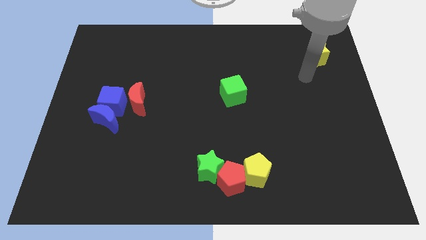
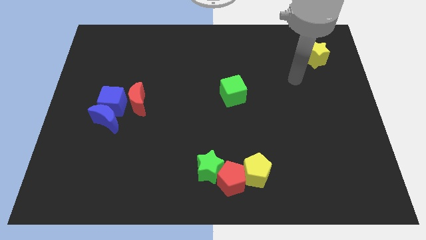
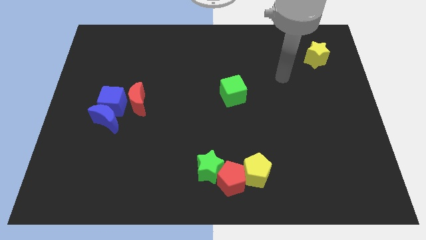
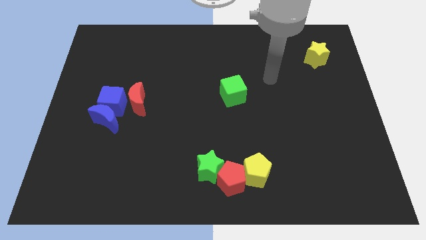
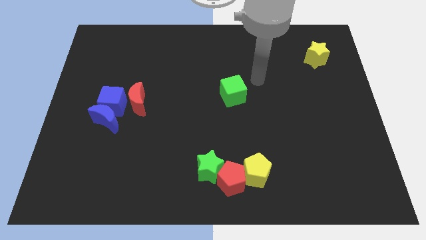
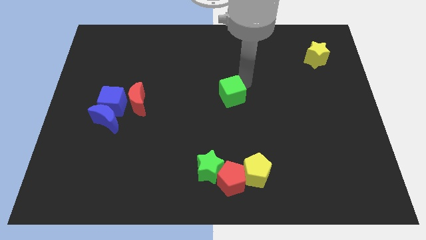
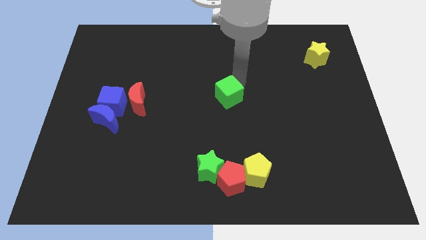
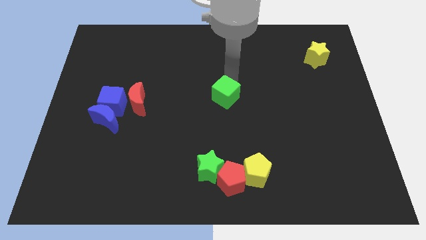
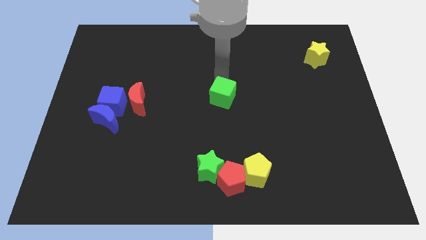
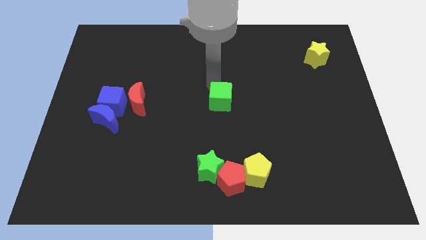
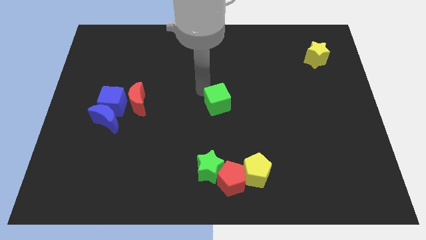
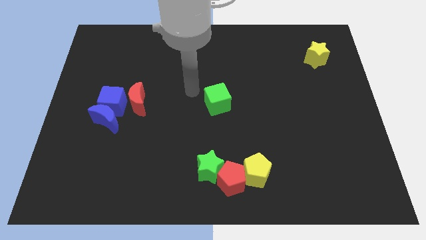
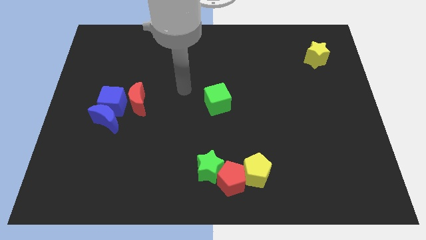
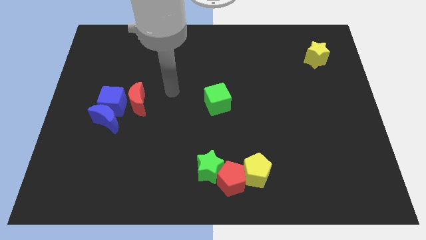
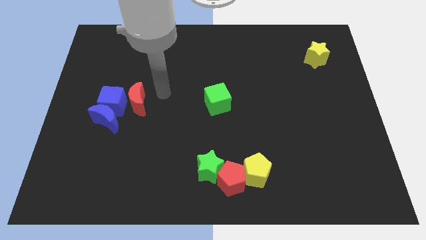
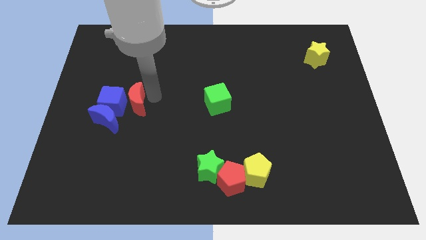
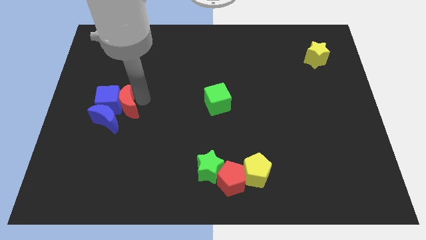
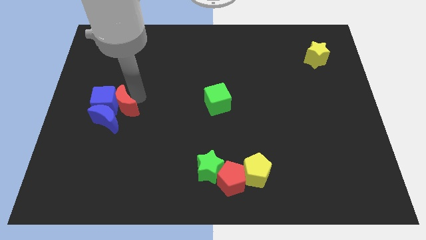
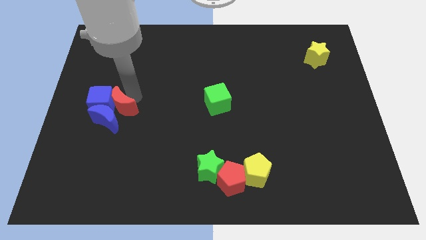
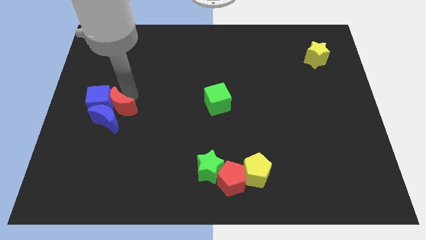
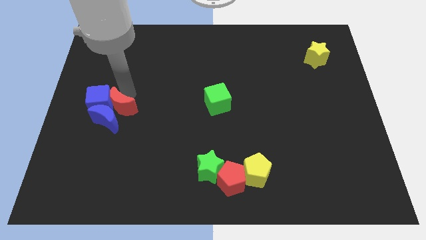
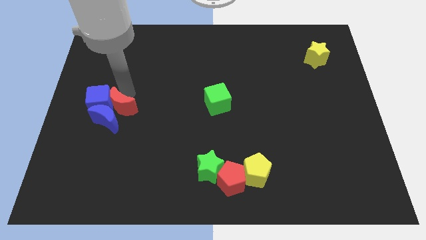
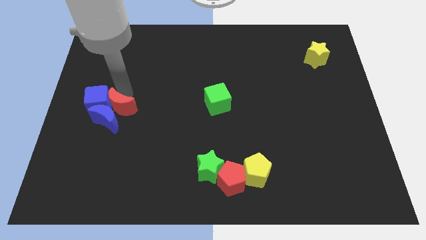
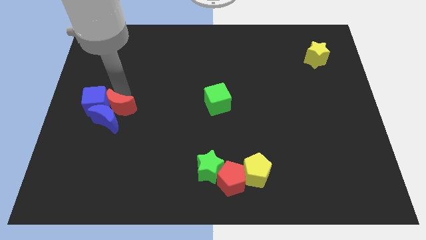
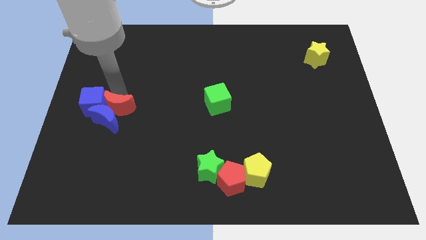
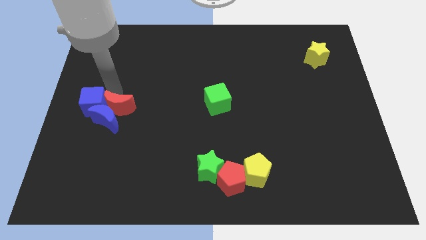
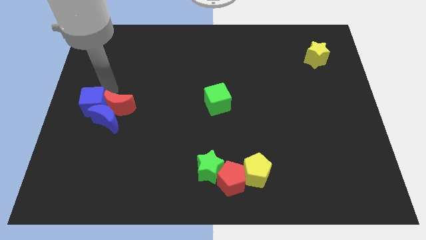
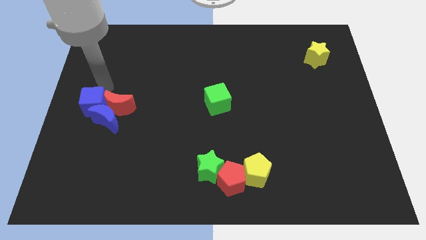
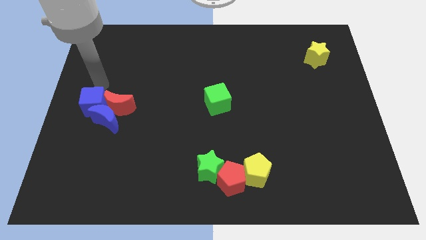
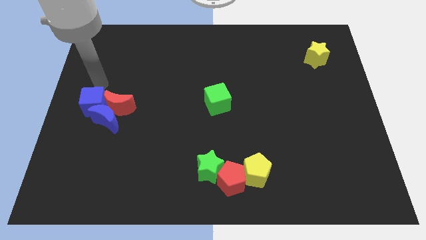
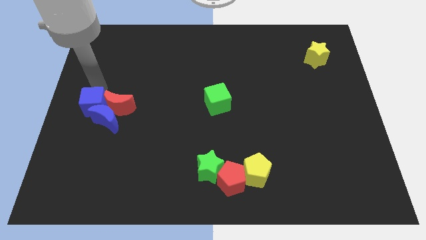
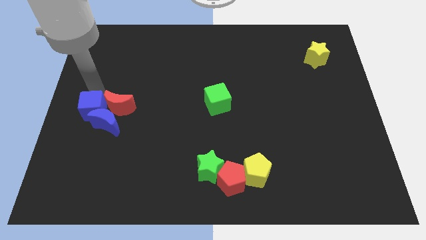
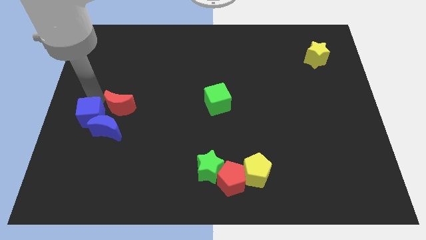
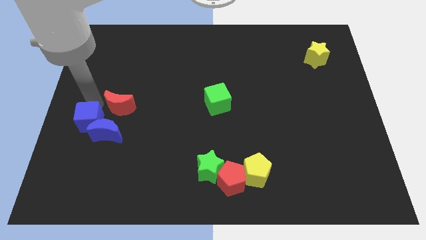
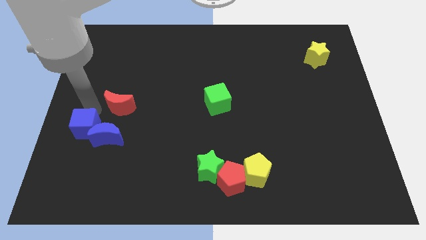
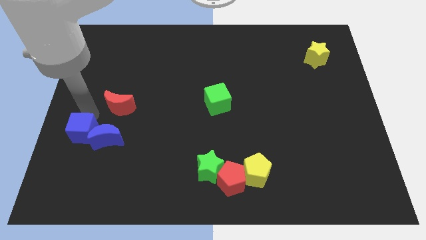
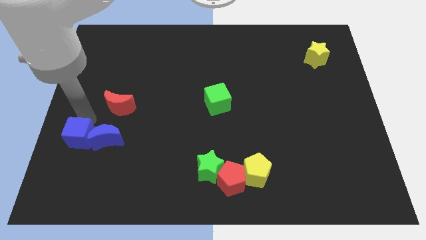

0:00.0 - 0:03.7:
push the blue cube a little down

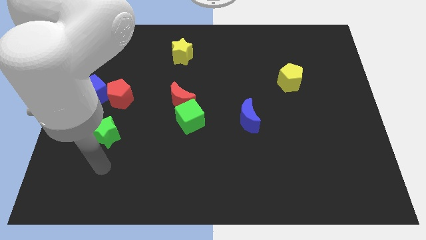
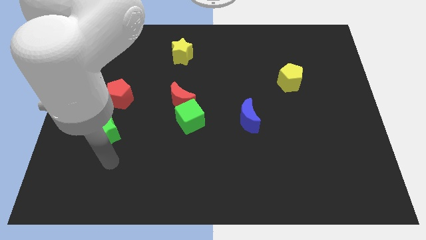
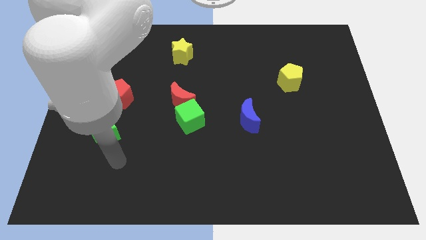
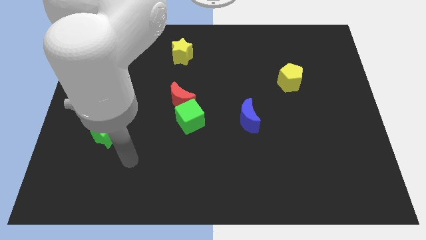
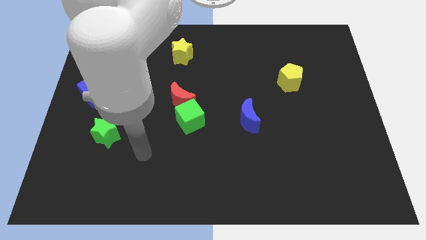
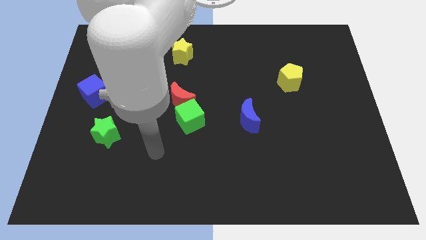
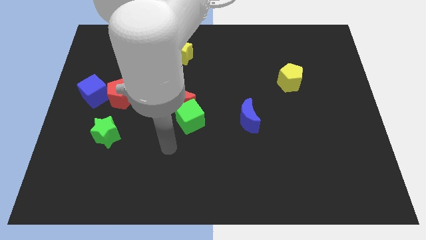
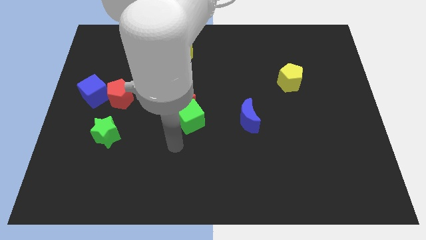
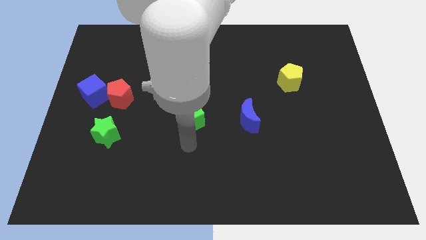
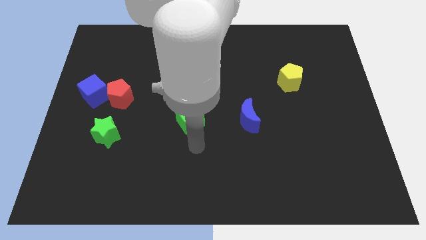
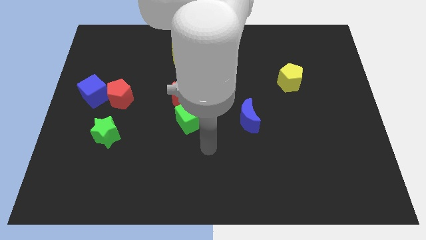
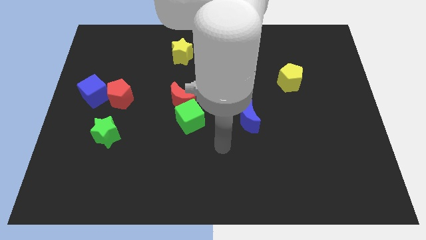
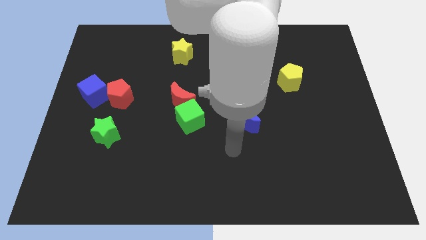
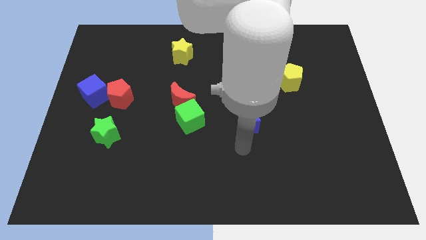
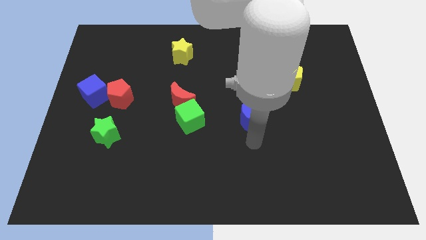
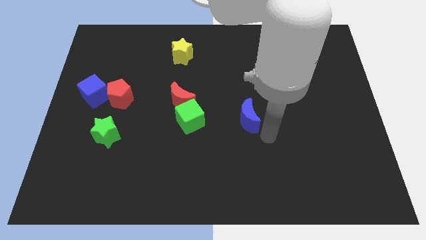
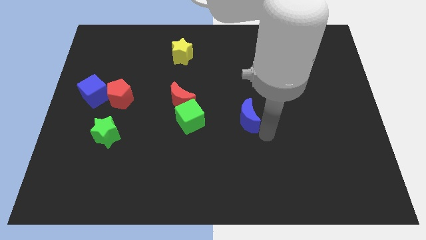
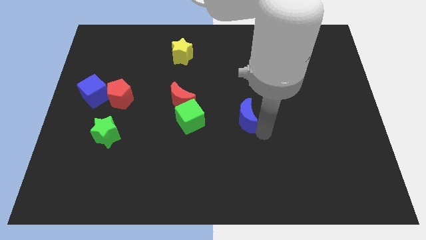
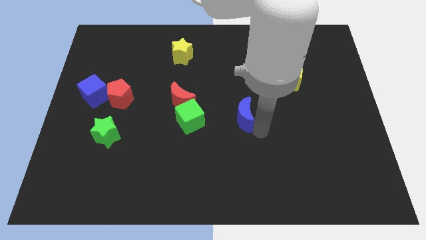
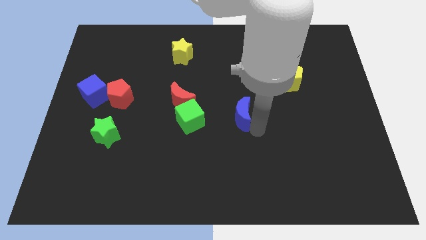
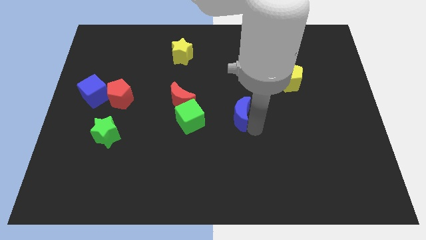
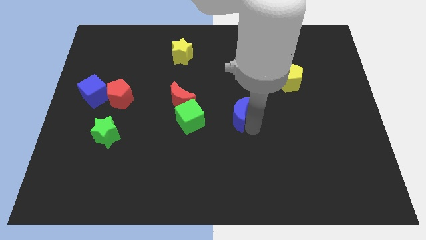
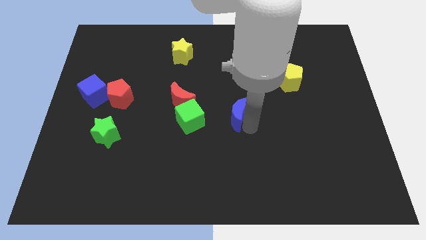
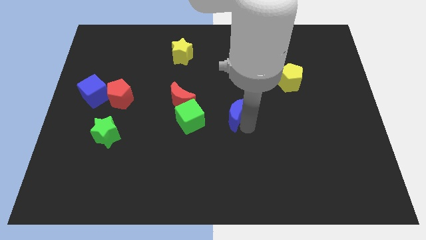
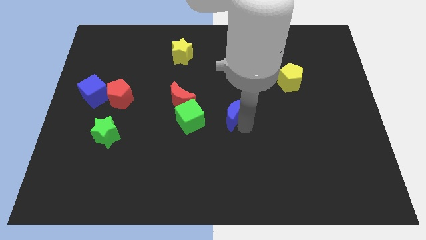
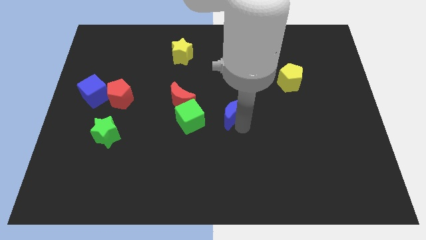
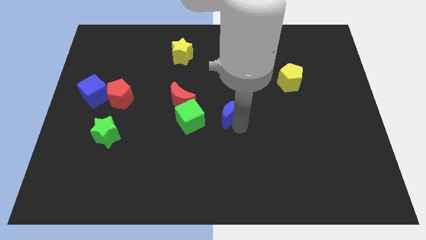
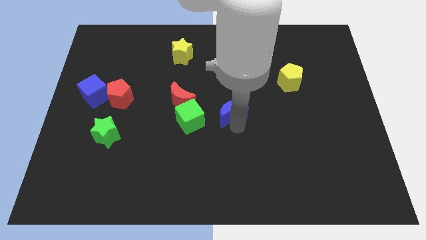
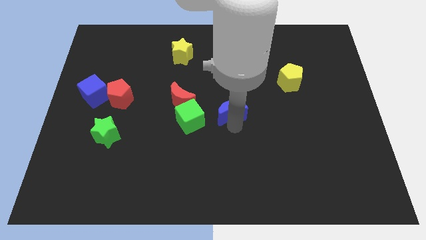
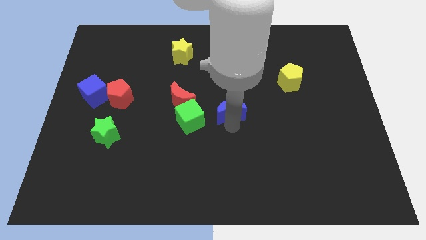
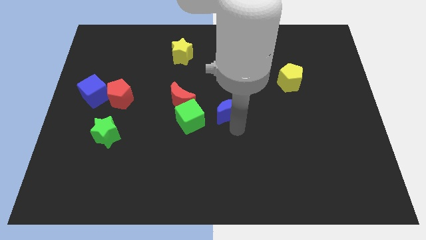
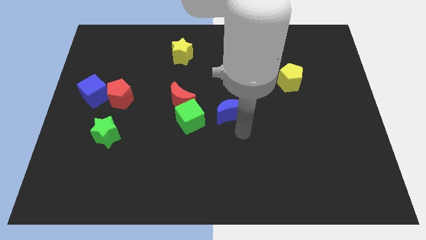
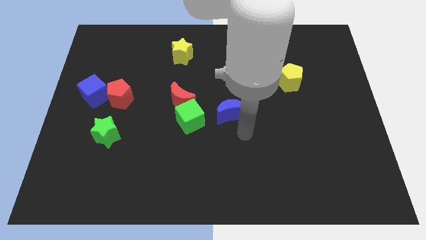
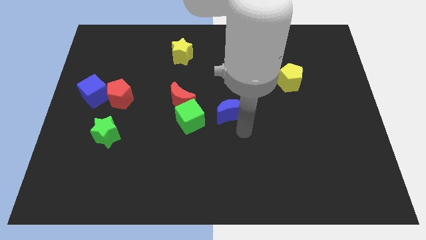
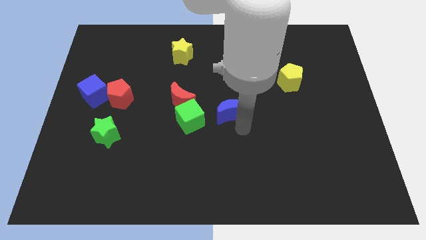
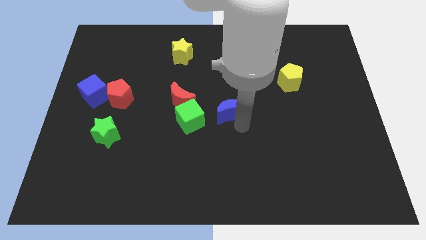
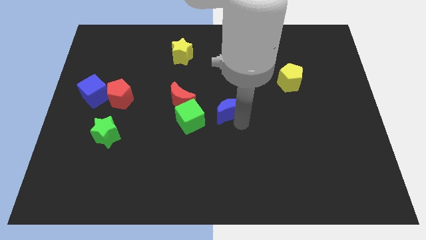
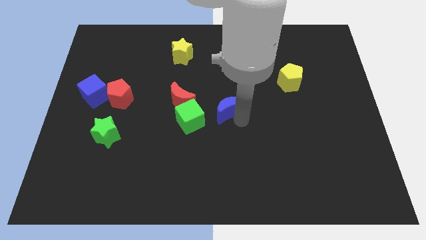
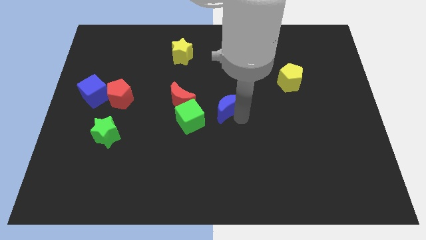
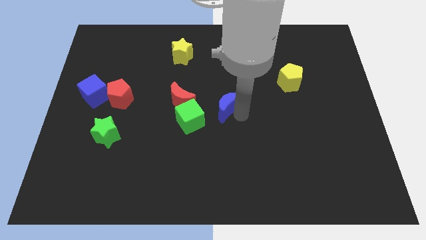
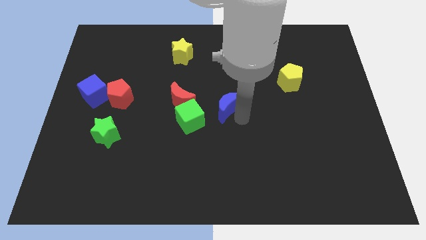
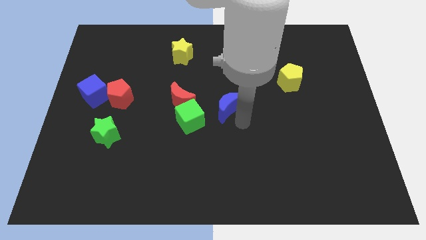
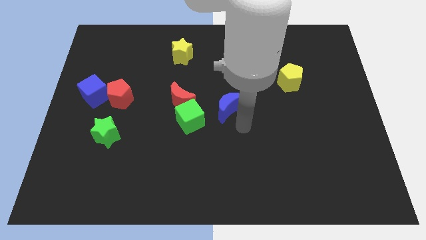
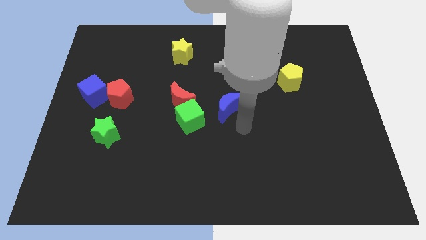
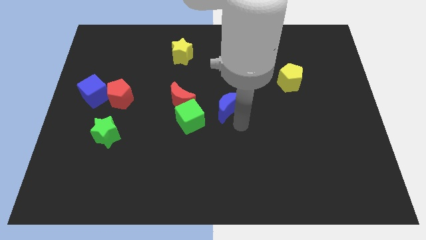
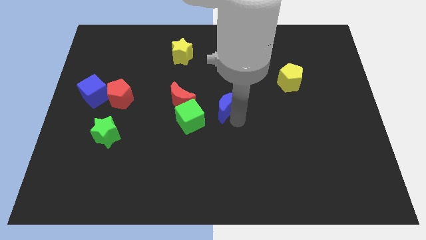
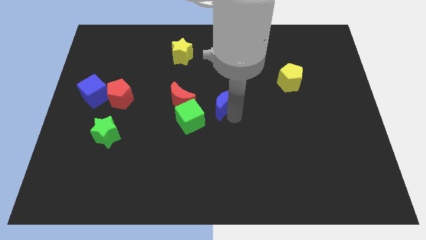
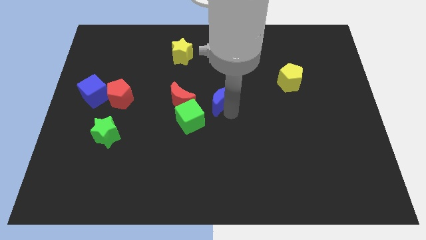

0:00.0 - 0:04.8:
move the blue moon a little up and to the left diagonally
